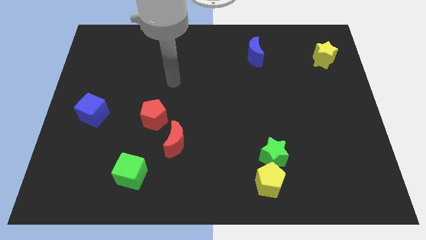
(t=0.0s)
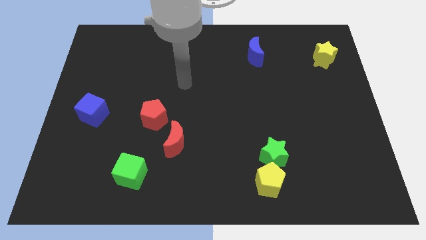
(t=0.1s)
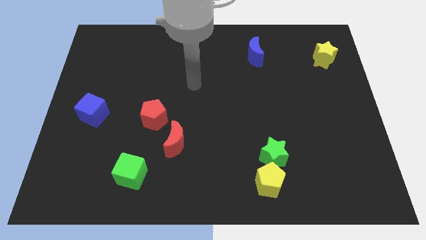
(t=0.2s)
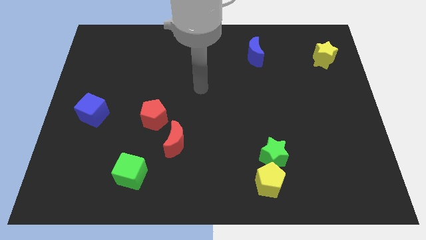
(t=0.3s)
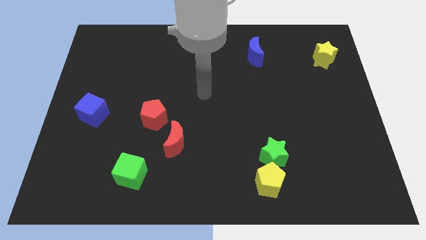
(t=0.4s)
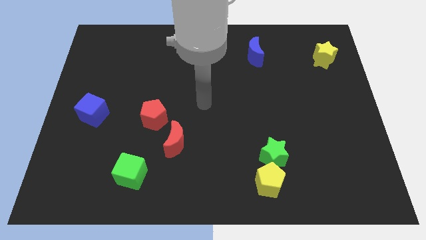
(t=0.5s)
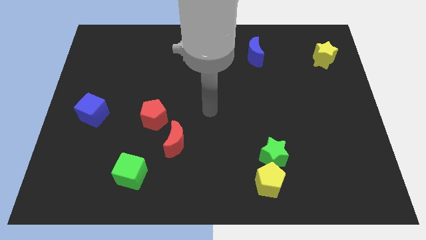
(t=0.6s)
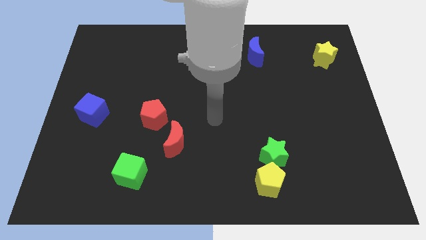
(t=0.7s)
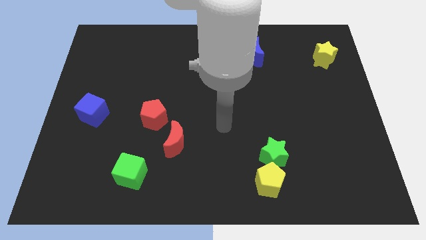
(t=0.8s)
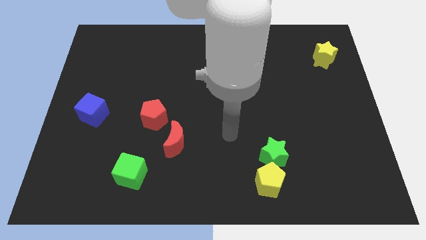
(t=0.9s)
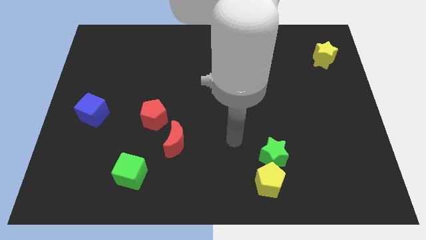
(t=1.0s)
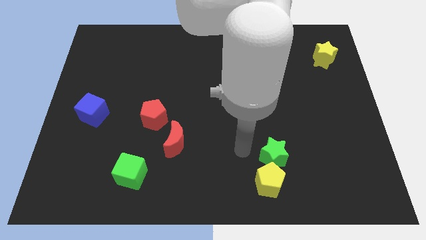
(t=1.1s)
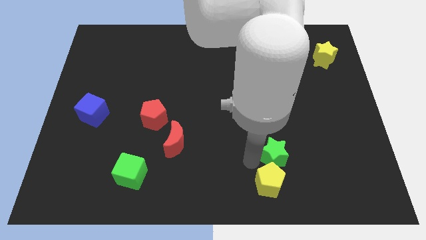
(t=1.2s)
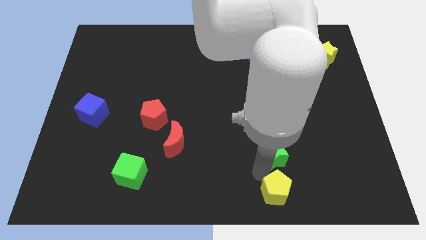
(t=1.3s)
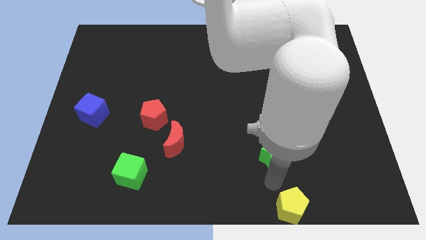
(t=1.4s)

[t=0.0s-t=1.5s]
move the green star away from the yellow pentagon

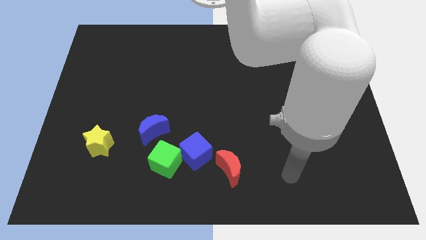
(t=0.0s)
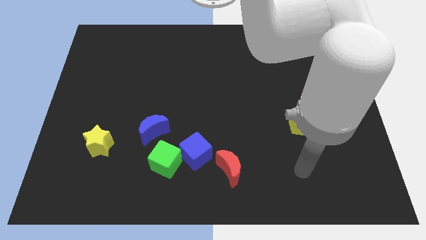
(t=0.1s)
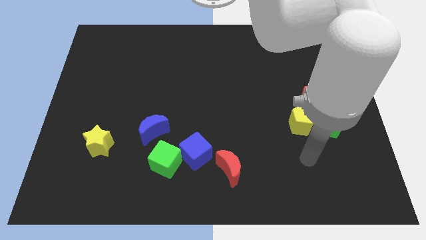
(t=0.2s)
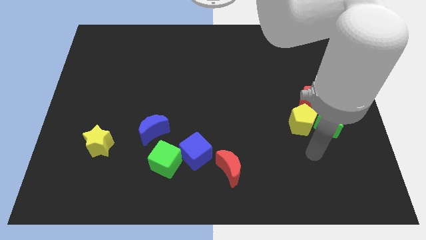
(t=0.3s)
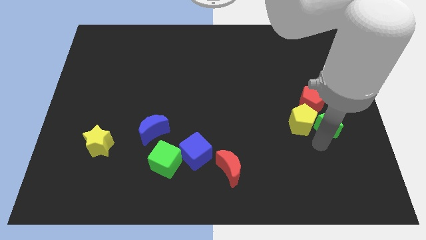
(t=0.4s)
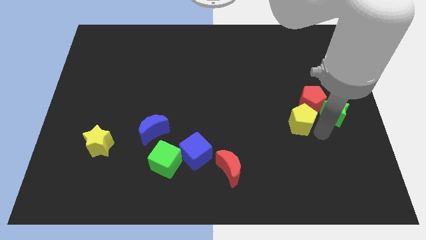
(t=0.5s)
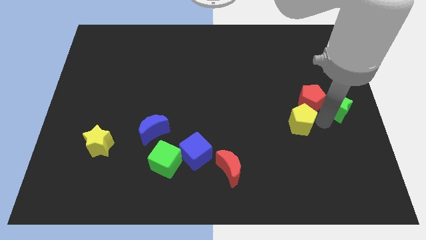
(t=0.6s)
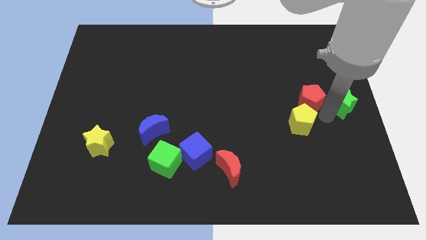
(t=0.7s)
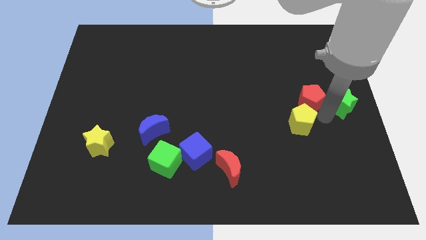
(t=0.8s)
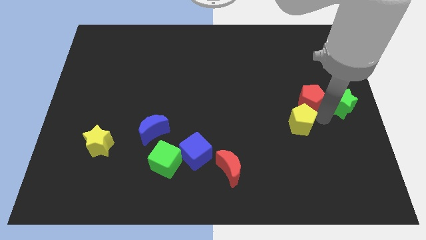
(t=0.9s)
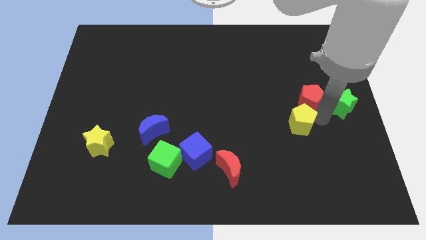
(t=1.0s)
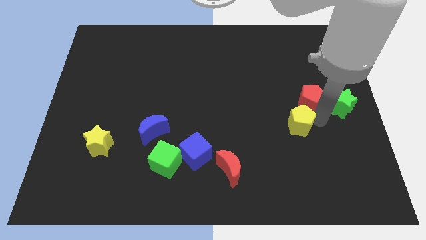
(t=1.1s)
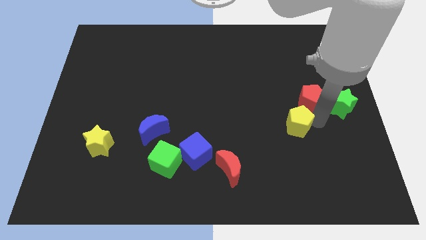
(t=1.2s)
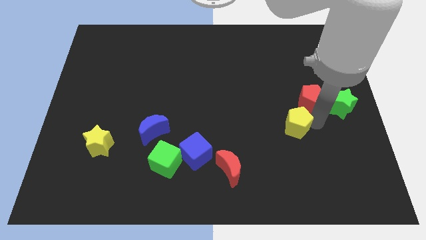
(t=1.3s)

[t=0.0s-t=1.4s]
pull the yellow pentagon apart from the green star and red pentagon

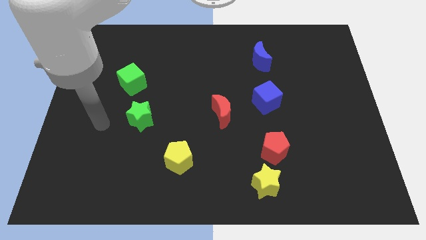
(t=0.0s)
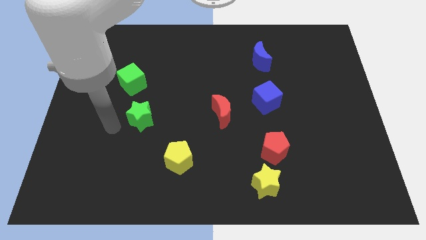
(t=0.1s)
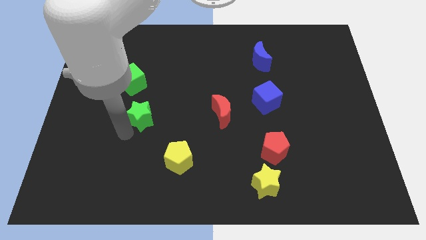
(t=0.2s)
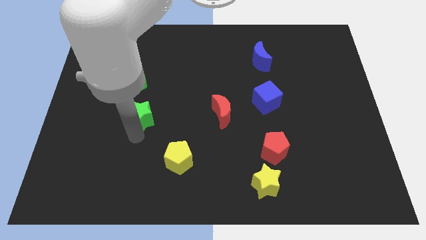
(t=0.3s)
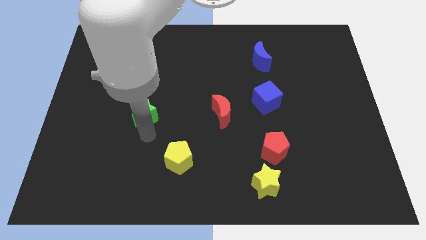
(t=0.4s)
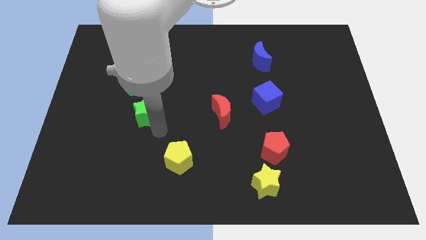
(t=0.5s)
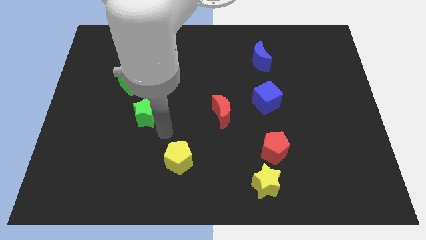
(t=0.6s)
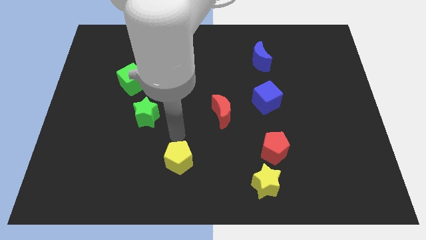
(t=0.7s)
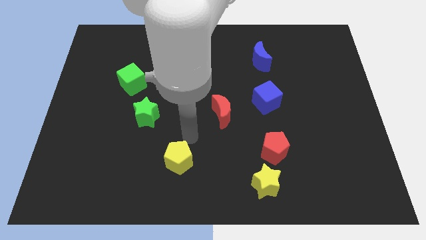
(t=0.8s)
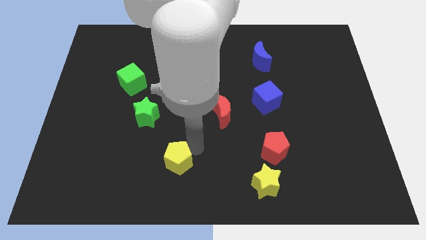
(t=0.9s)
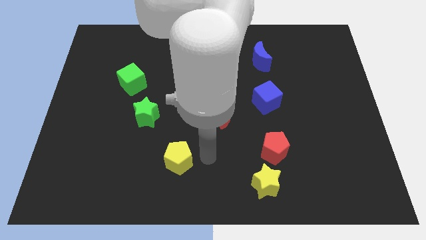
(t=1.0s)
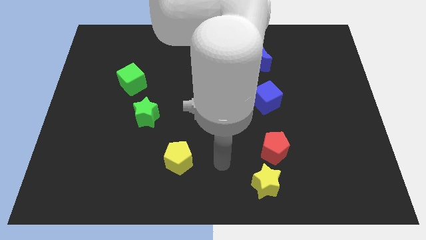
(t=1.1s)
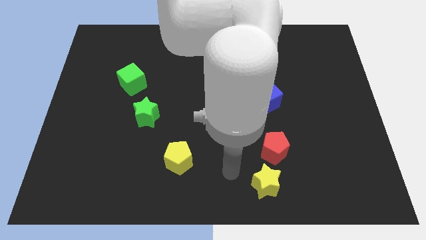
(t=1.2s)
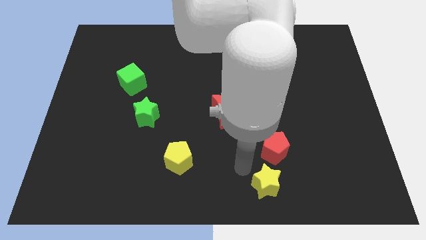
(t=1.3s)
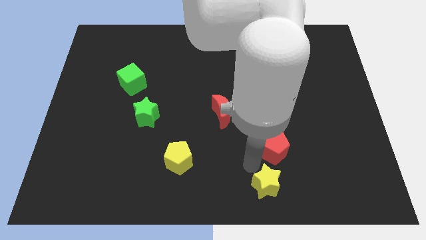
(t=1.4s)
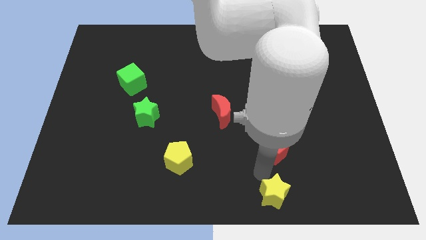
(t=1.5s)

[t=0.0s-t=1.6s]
move the red pentagon away from the yellow star

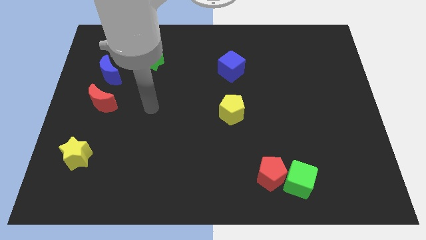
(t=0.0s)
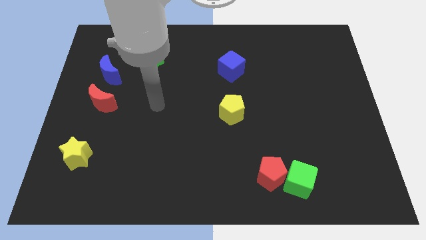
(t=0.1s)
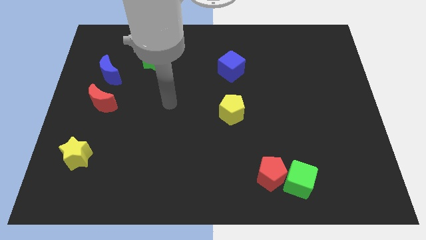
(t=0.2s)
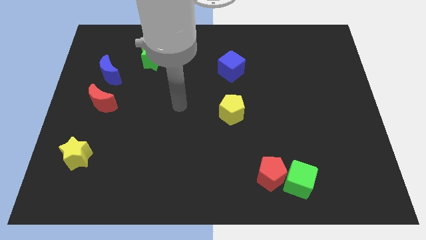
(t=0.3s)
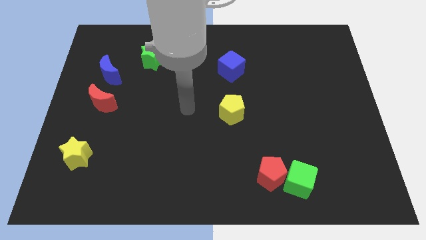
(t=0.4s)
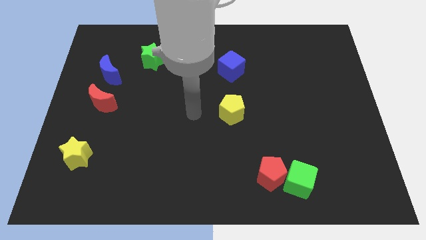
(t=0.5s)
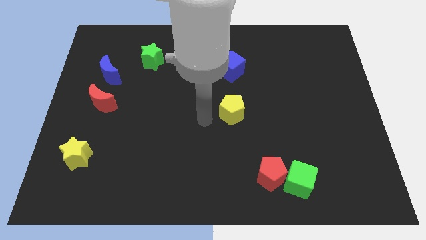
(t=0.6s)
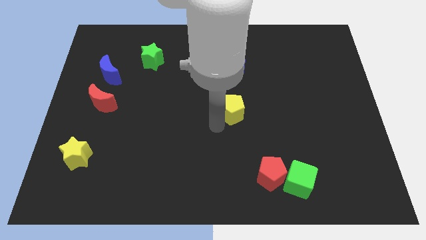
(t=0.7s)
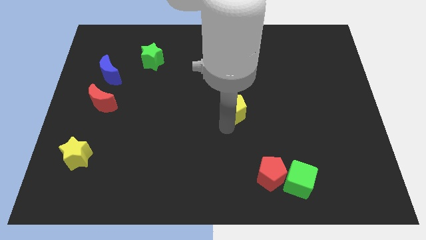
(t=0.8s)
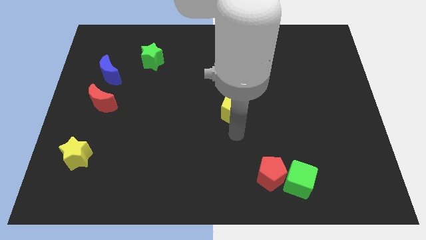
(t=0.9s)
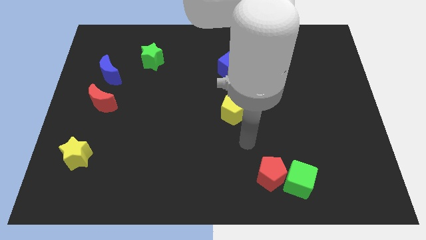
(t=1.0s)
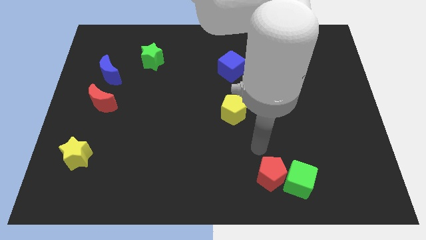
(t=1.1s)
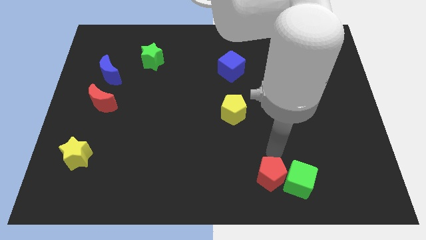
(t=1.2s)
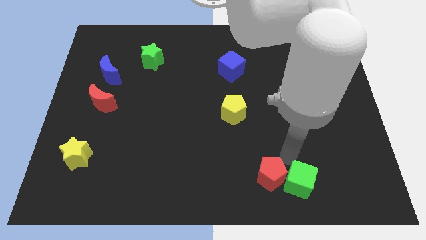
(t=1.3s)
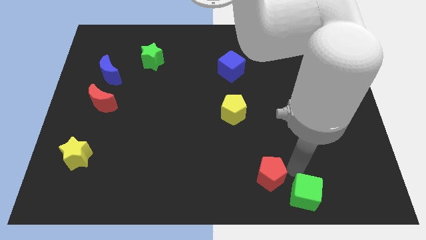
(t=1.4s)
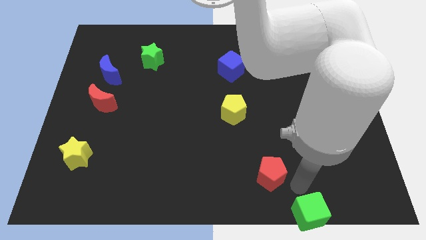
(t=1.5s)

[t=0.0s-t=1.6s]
separate the red pentagon from the green cube

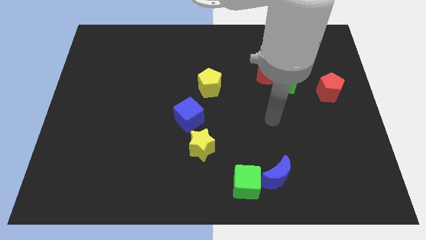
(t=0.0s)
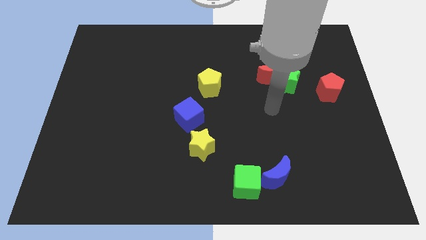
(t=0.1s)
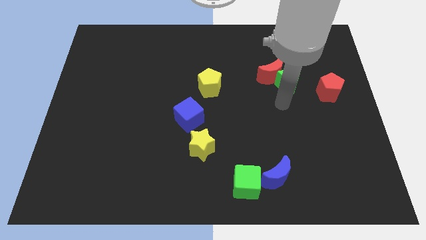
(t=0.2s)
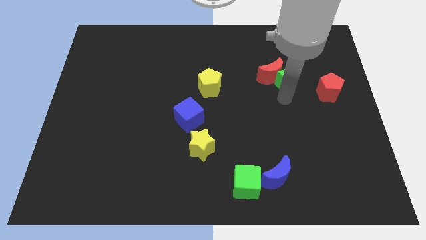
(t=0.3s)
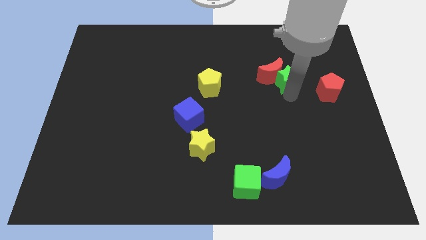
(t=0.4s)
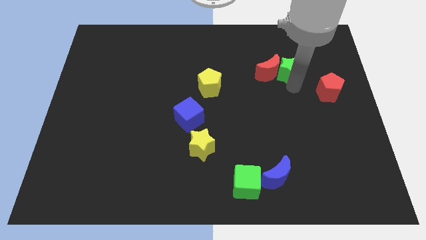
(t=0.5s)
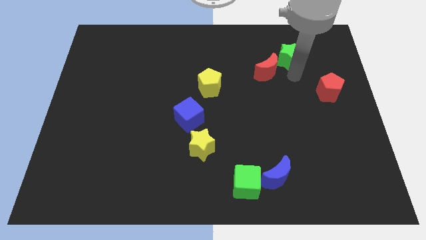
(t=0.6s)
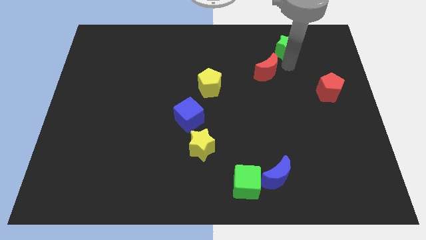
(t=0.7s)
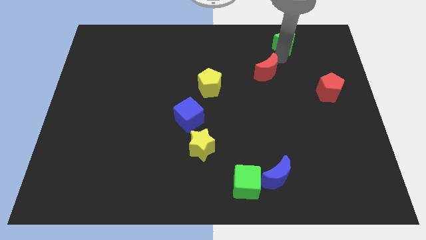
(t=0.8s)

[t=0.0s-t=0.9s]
separate the red moon from the green star

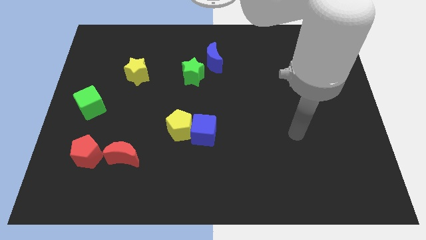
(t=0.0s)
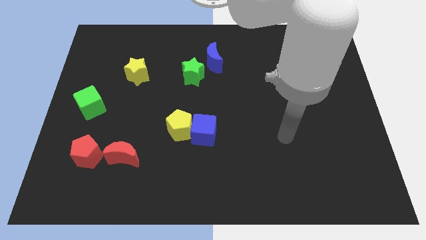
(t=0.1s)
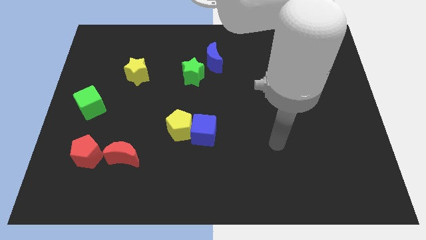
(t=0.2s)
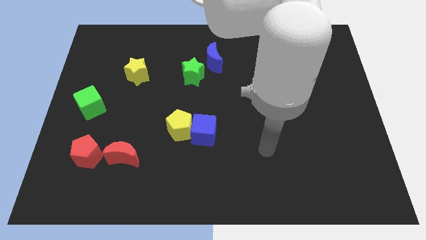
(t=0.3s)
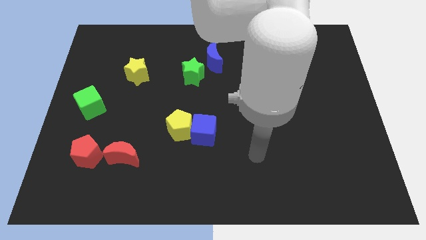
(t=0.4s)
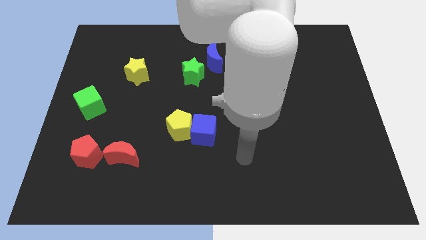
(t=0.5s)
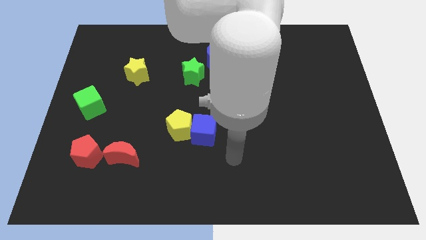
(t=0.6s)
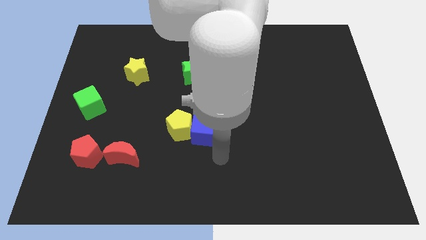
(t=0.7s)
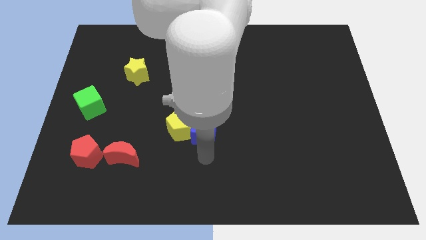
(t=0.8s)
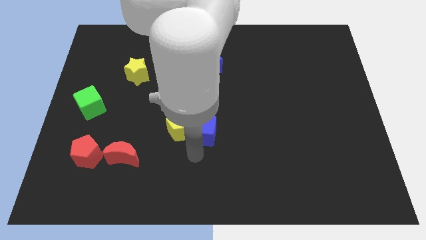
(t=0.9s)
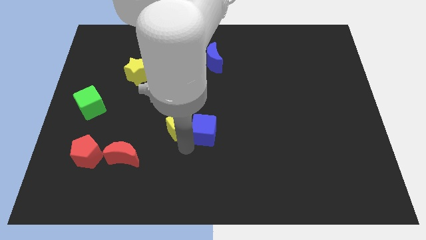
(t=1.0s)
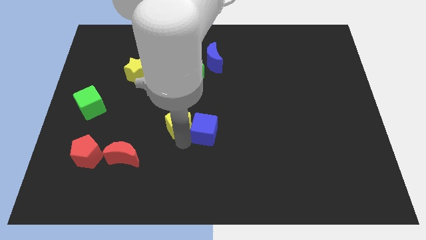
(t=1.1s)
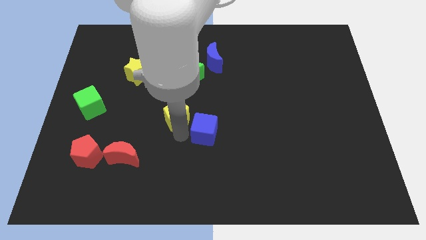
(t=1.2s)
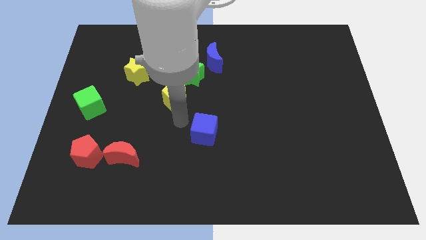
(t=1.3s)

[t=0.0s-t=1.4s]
separate the blue cube from the yellow pentagon

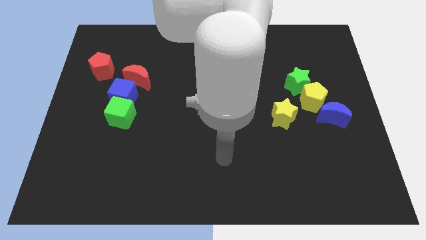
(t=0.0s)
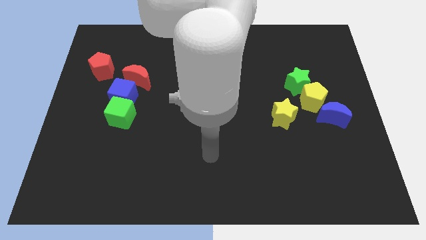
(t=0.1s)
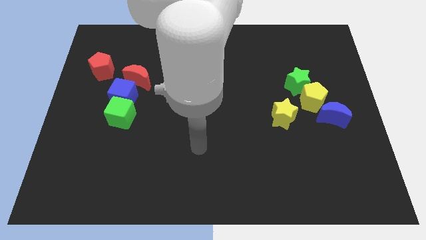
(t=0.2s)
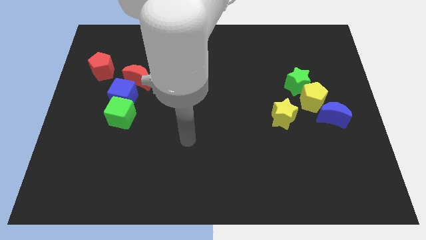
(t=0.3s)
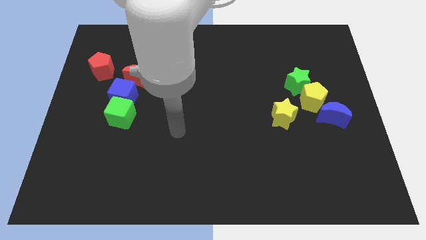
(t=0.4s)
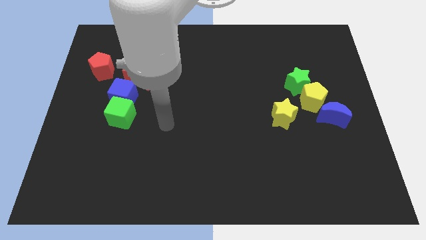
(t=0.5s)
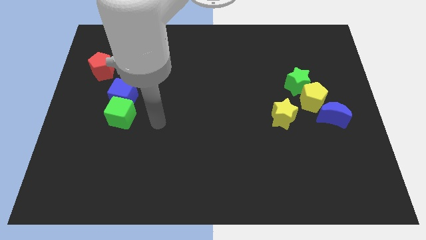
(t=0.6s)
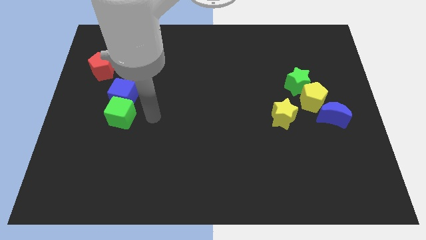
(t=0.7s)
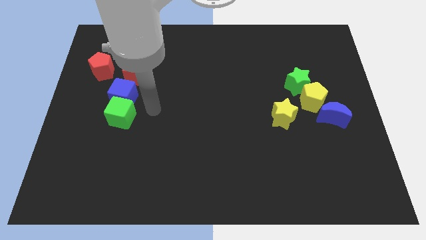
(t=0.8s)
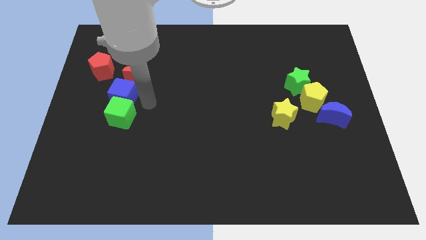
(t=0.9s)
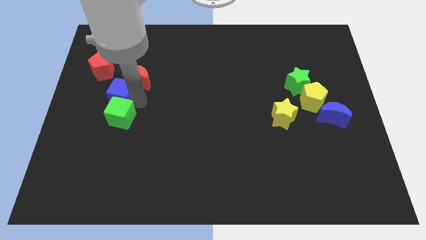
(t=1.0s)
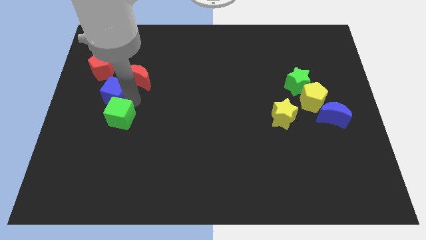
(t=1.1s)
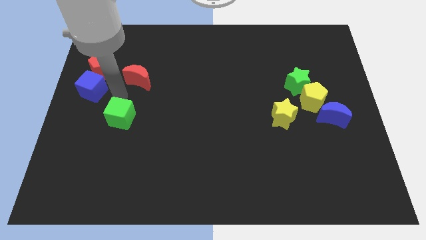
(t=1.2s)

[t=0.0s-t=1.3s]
separate the green cube from the blue cube
